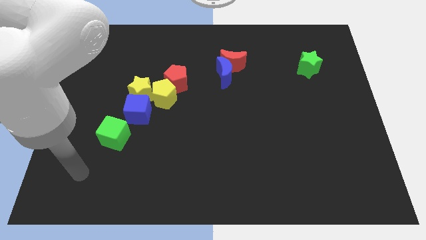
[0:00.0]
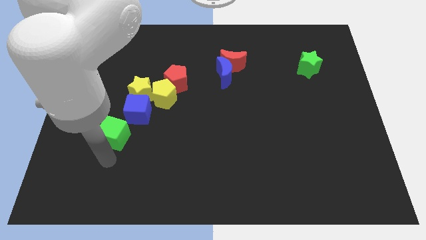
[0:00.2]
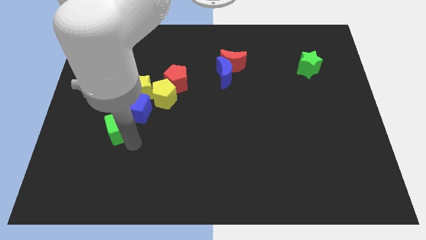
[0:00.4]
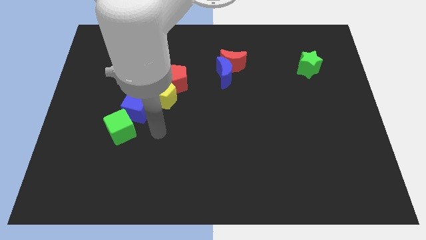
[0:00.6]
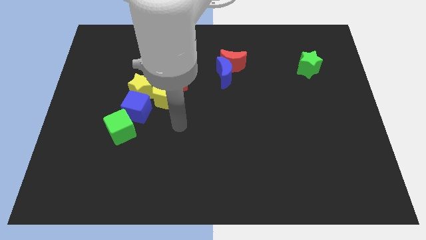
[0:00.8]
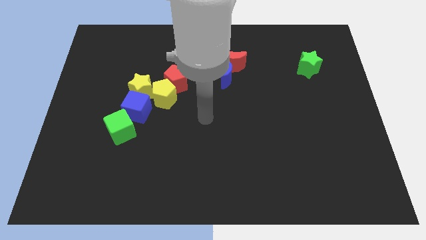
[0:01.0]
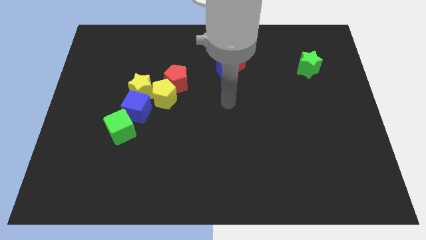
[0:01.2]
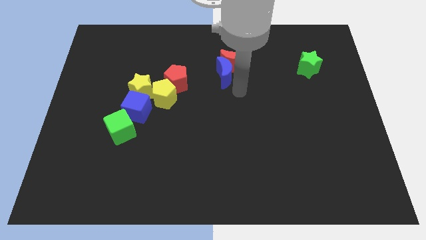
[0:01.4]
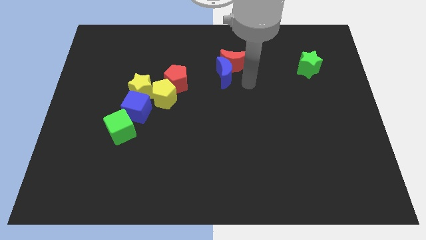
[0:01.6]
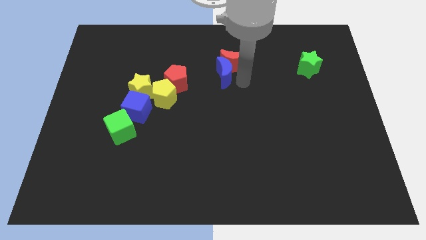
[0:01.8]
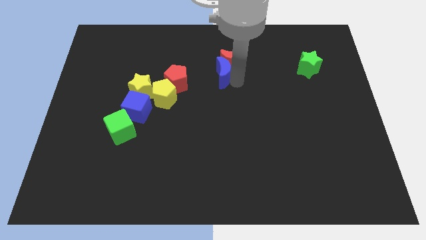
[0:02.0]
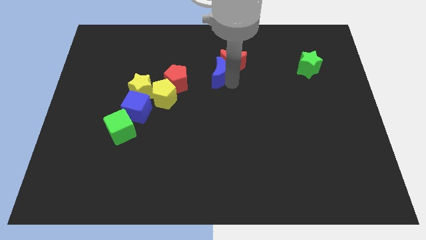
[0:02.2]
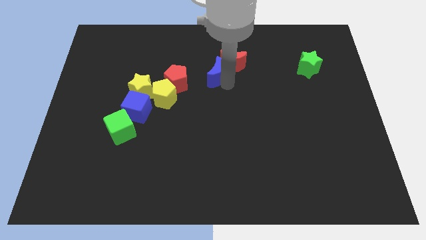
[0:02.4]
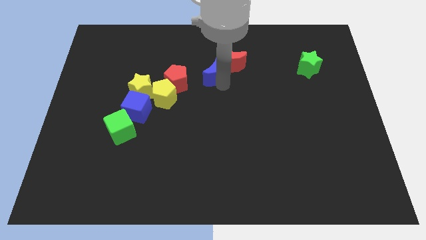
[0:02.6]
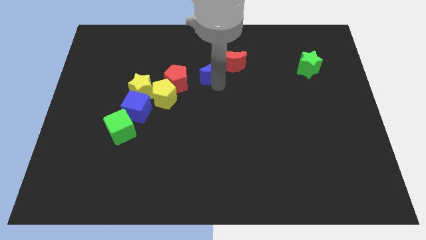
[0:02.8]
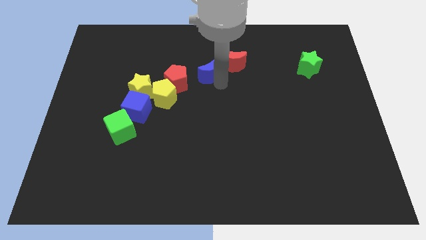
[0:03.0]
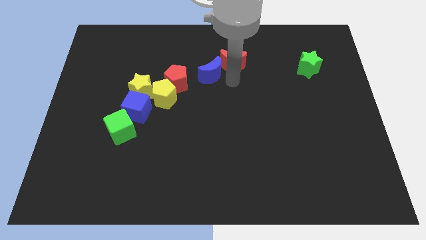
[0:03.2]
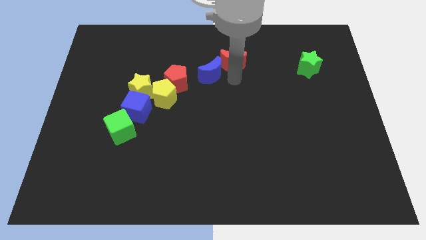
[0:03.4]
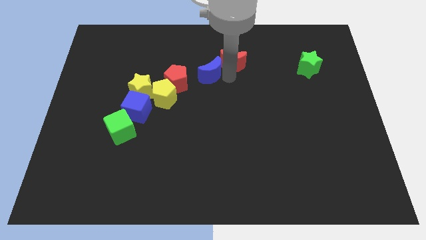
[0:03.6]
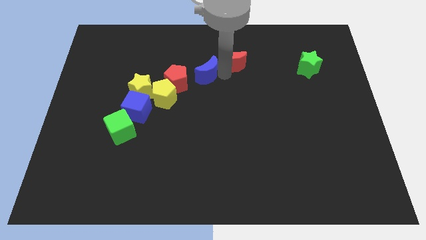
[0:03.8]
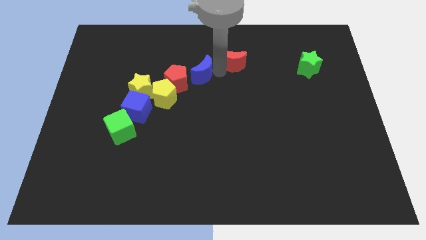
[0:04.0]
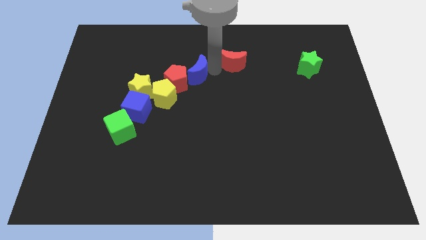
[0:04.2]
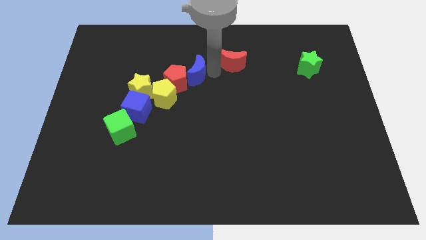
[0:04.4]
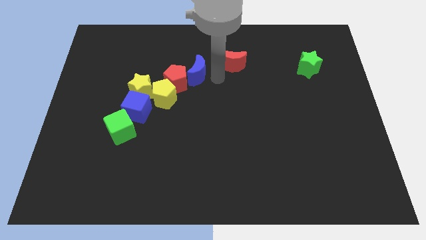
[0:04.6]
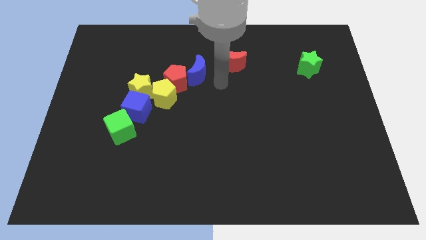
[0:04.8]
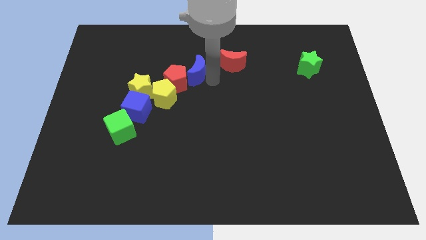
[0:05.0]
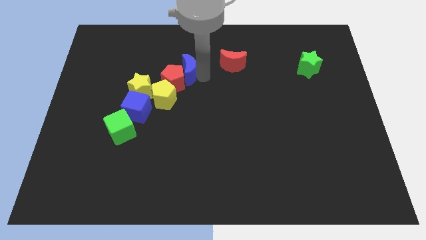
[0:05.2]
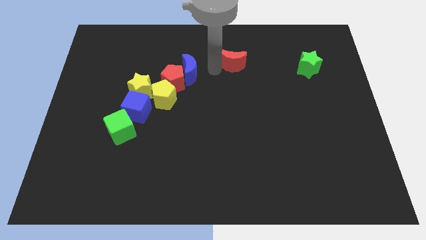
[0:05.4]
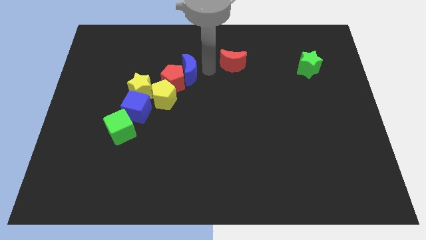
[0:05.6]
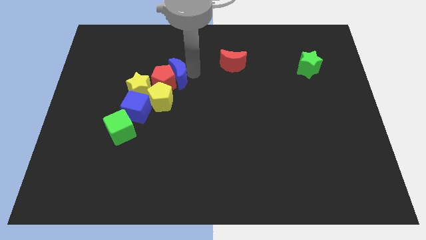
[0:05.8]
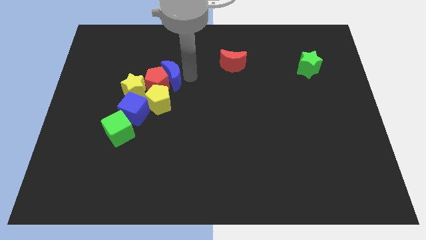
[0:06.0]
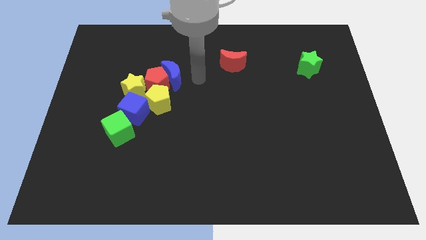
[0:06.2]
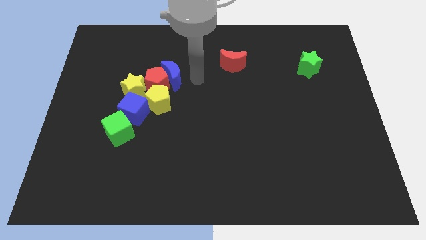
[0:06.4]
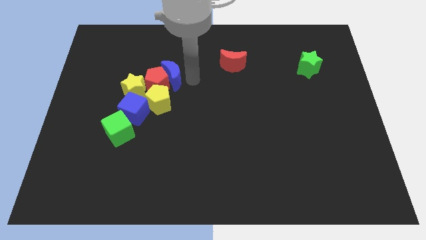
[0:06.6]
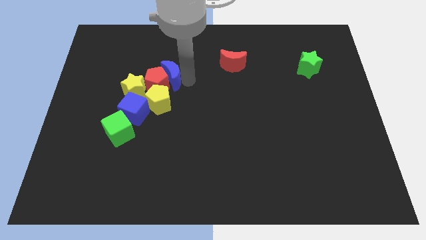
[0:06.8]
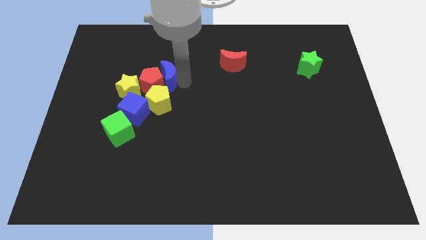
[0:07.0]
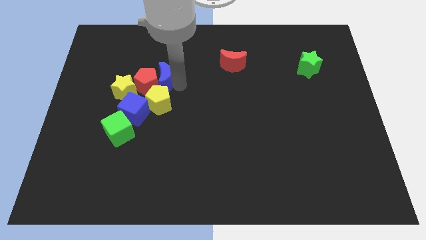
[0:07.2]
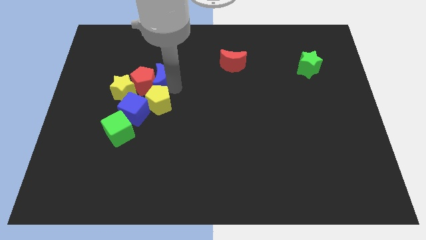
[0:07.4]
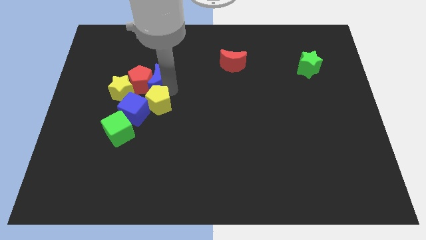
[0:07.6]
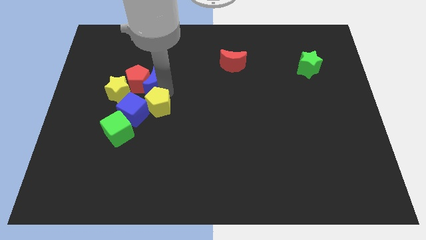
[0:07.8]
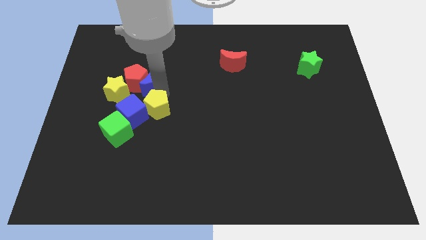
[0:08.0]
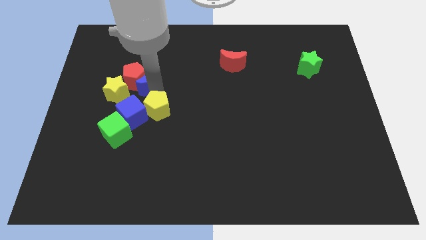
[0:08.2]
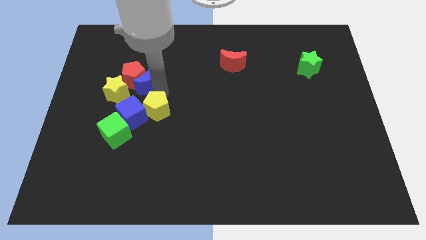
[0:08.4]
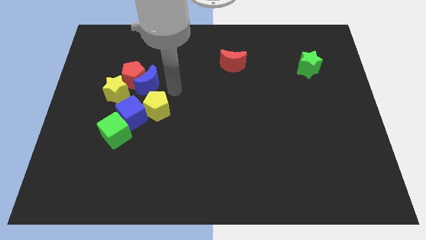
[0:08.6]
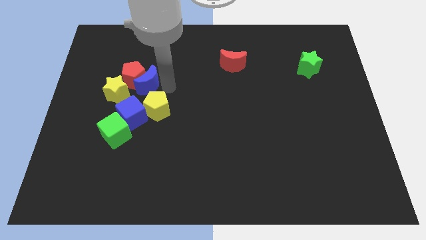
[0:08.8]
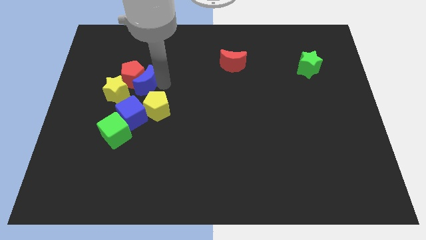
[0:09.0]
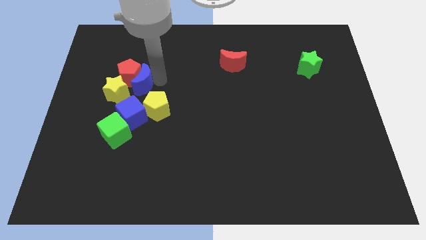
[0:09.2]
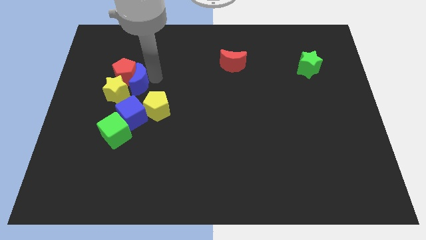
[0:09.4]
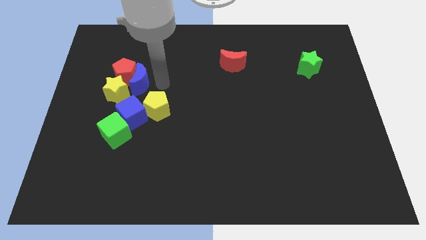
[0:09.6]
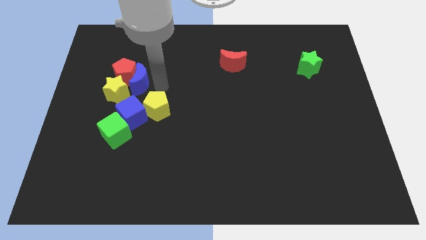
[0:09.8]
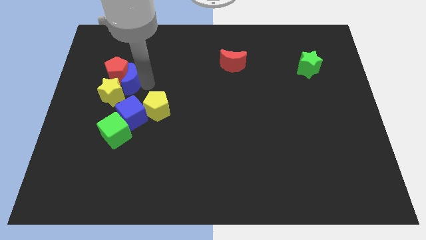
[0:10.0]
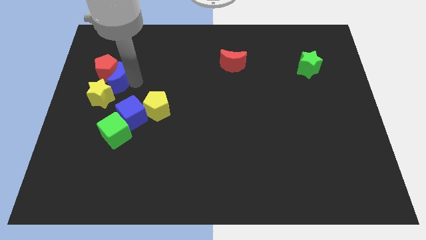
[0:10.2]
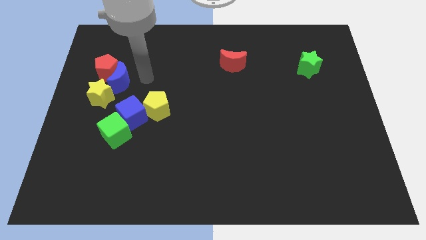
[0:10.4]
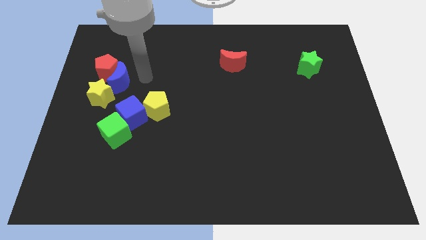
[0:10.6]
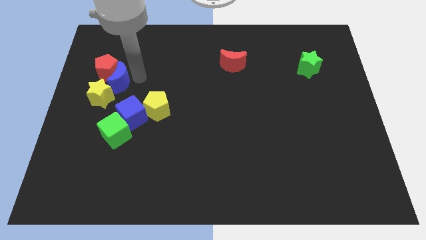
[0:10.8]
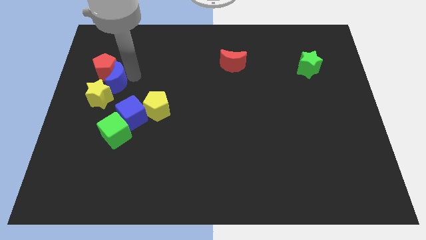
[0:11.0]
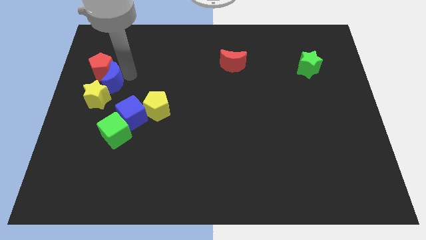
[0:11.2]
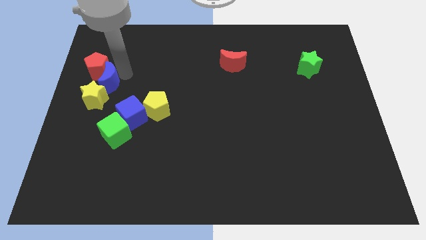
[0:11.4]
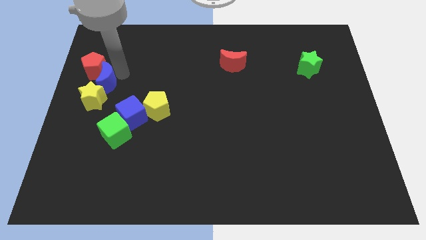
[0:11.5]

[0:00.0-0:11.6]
slide the blue moon to the center left

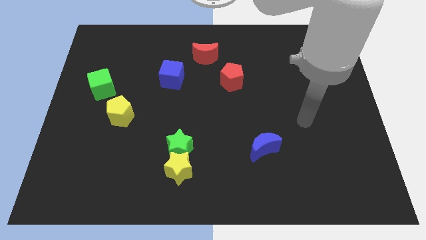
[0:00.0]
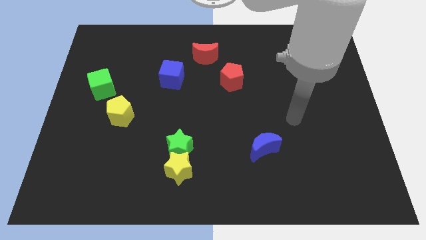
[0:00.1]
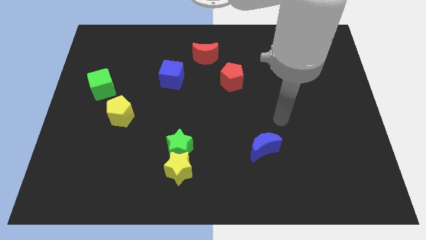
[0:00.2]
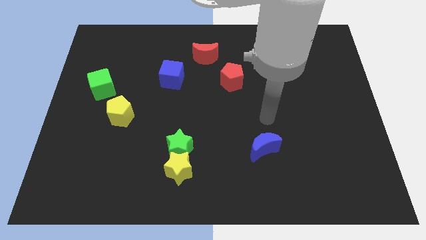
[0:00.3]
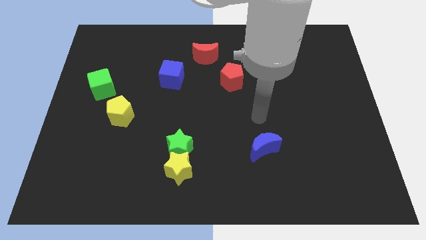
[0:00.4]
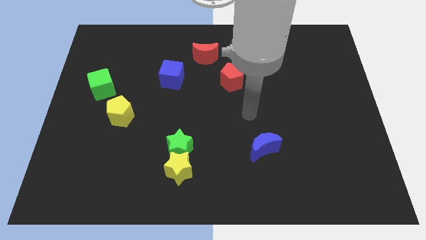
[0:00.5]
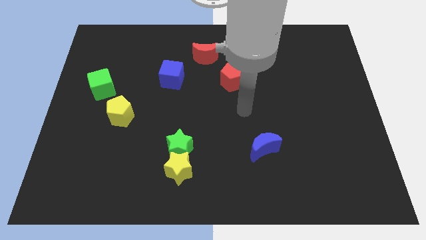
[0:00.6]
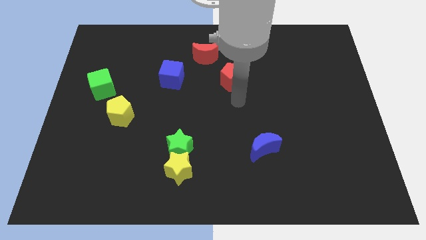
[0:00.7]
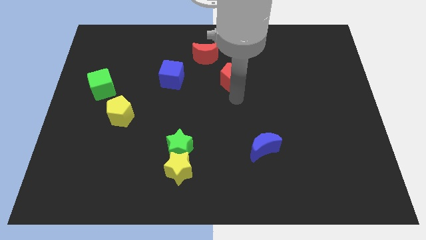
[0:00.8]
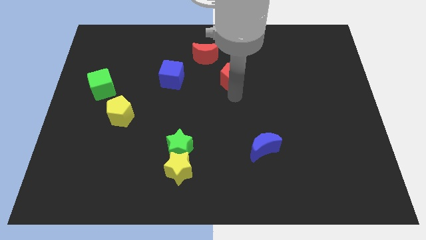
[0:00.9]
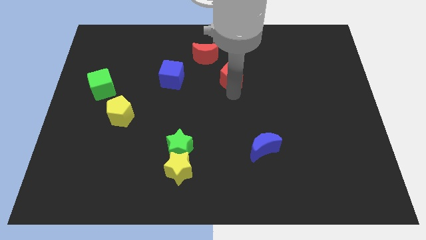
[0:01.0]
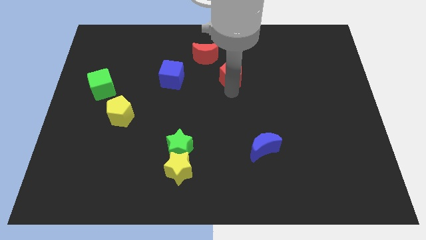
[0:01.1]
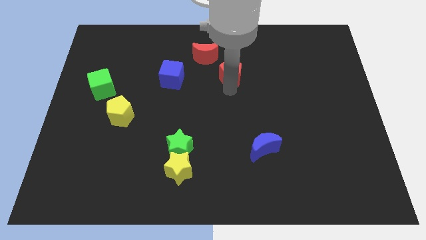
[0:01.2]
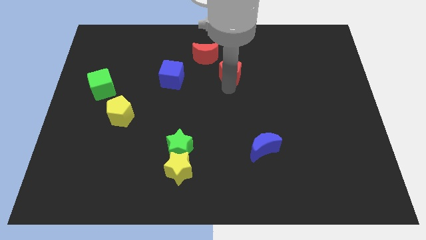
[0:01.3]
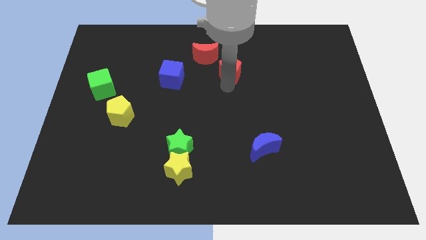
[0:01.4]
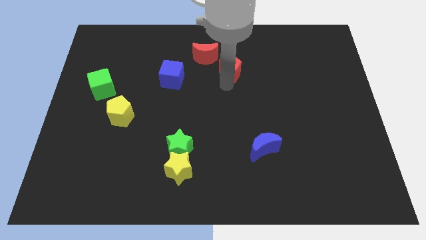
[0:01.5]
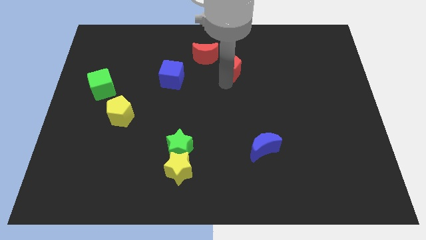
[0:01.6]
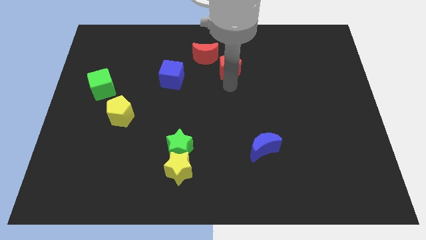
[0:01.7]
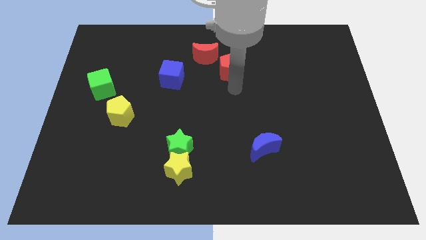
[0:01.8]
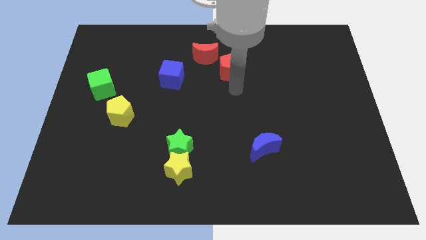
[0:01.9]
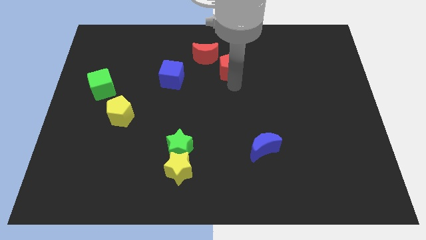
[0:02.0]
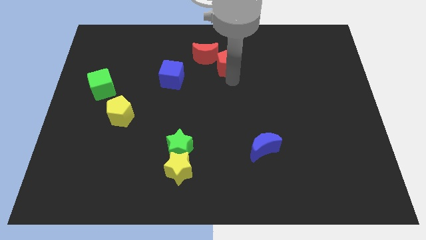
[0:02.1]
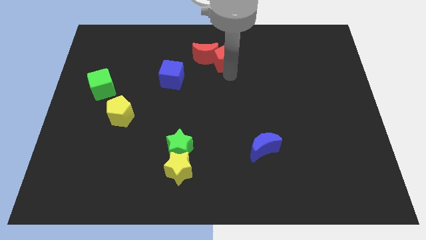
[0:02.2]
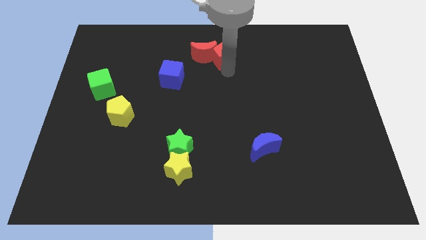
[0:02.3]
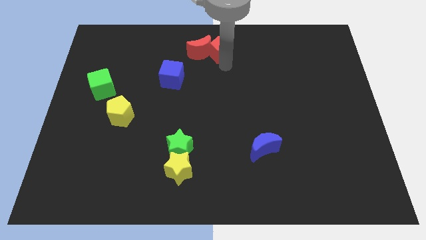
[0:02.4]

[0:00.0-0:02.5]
move the red pentagon to the top
